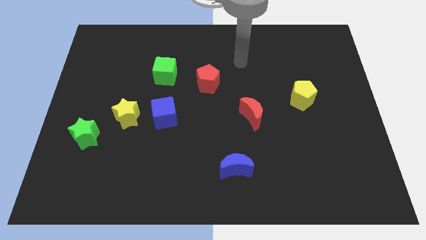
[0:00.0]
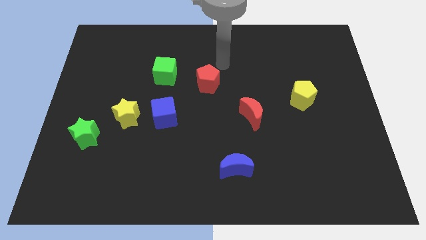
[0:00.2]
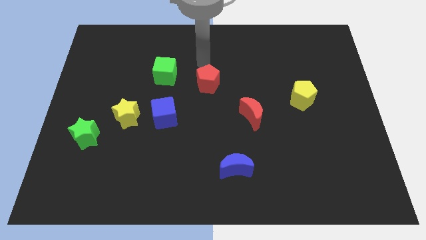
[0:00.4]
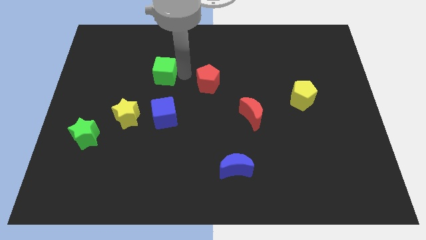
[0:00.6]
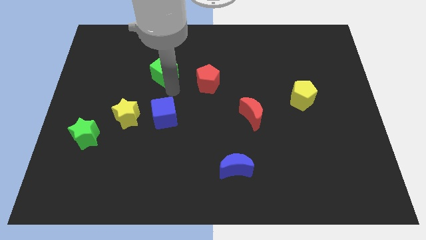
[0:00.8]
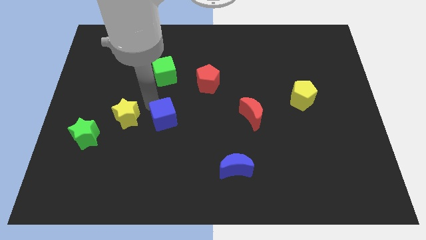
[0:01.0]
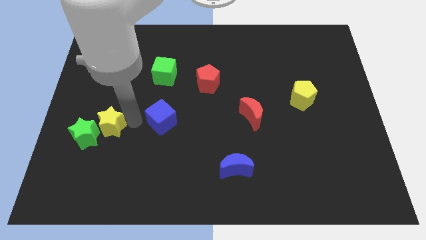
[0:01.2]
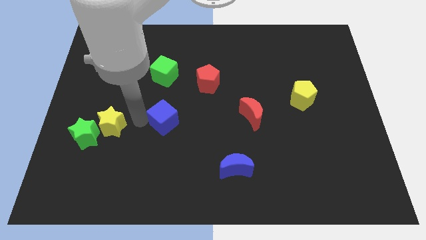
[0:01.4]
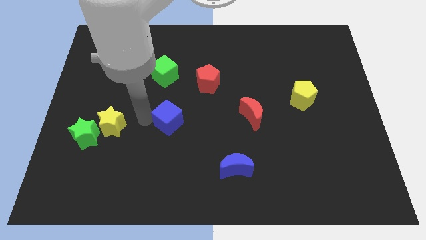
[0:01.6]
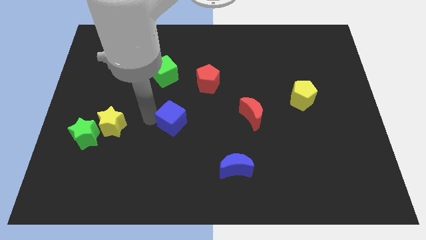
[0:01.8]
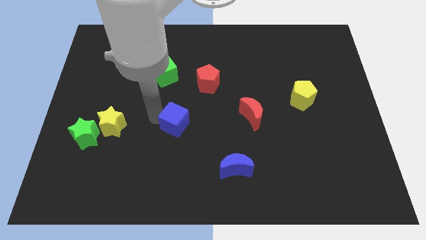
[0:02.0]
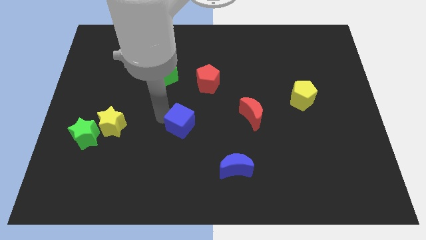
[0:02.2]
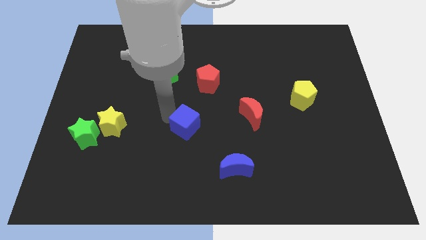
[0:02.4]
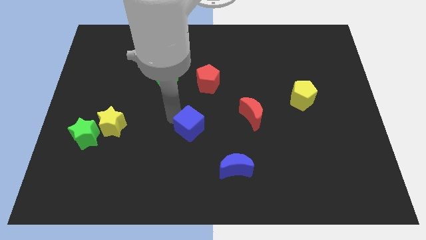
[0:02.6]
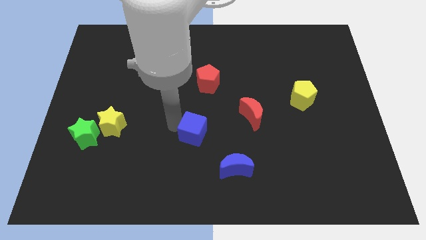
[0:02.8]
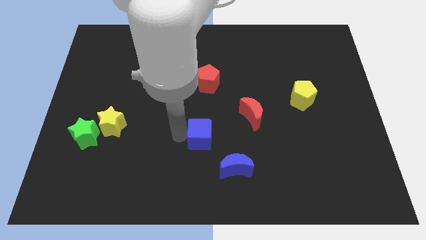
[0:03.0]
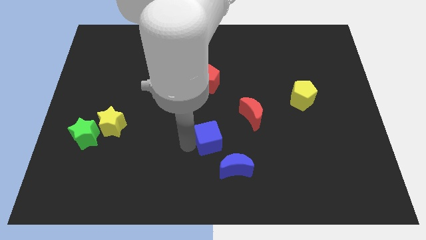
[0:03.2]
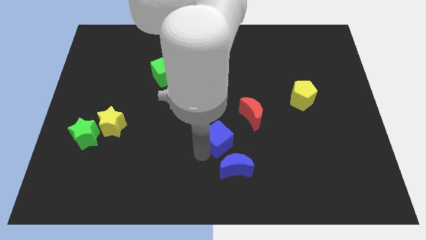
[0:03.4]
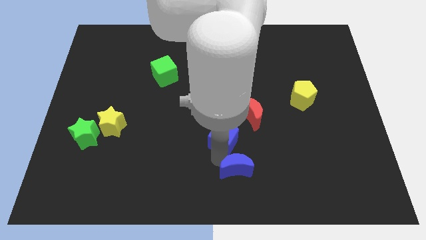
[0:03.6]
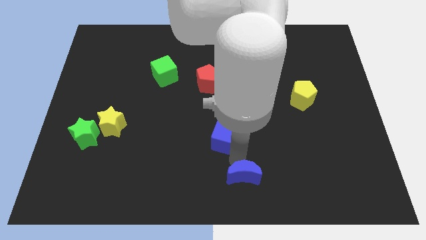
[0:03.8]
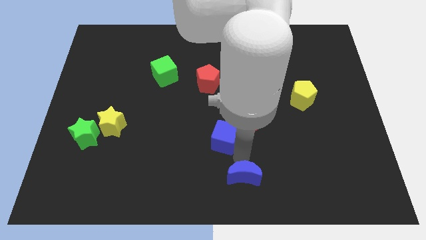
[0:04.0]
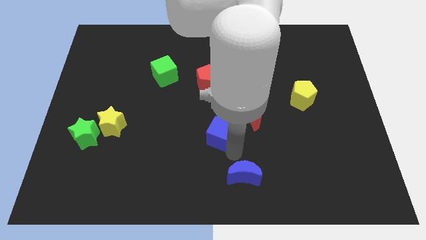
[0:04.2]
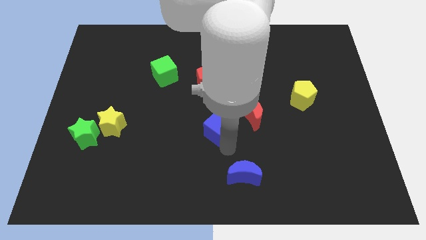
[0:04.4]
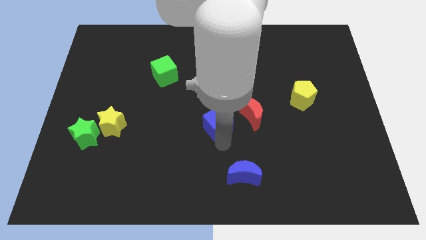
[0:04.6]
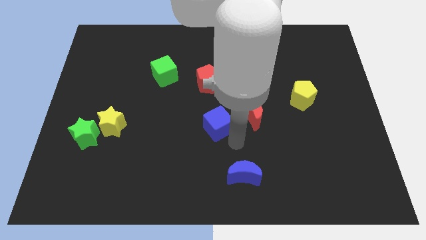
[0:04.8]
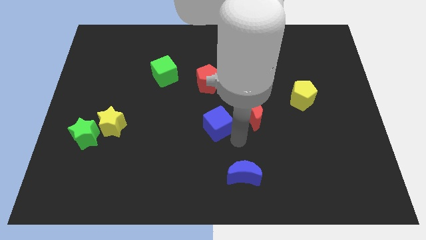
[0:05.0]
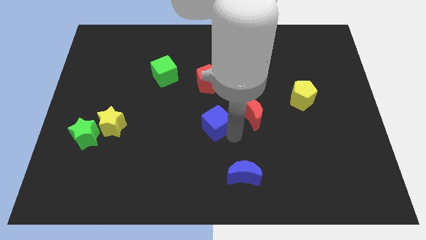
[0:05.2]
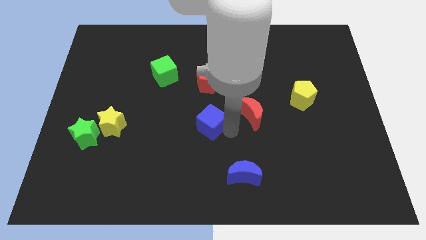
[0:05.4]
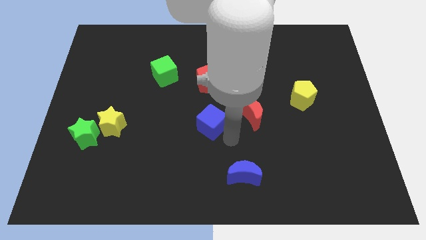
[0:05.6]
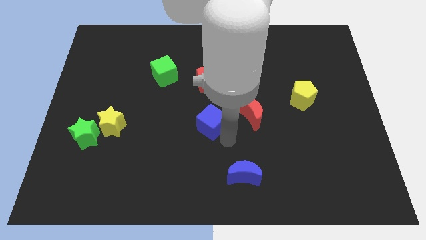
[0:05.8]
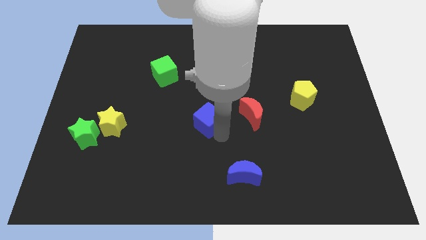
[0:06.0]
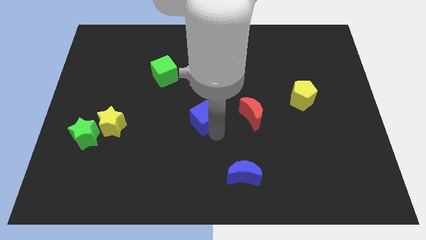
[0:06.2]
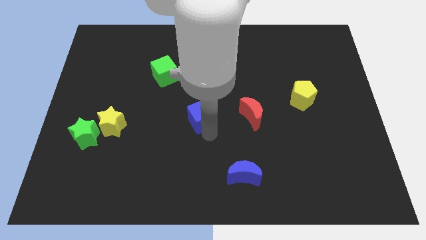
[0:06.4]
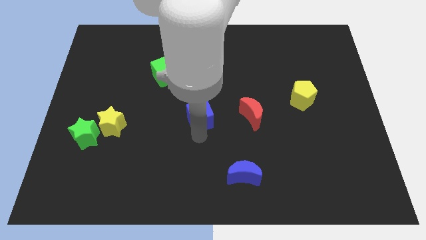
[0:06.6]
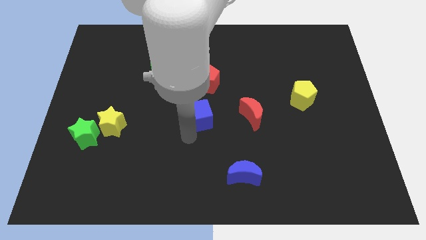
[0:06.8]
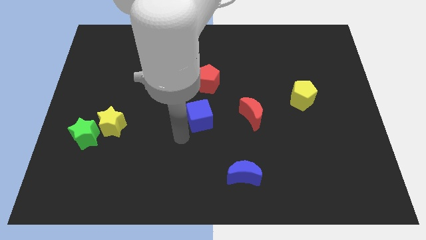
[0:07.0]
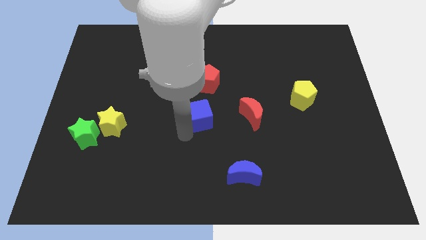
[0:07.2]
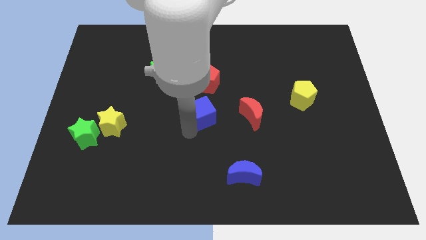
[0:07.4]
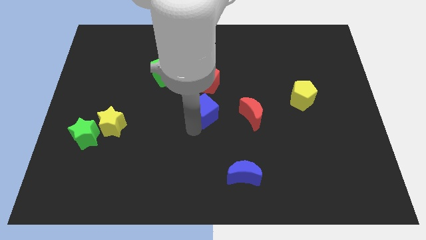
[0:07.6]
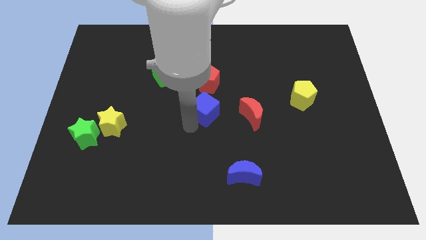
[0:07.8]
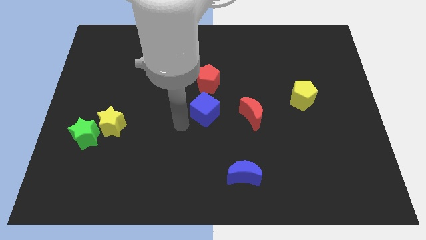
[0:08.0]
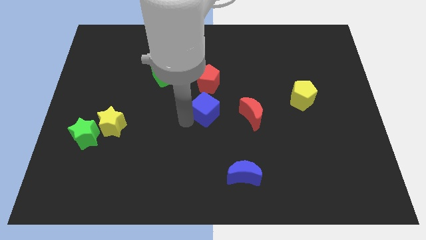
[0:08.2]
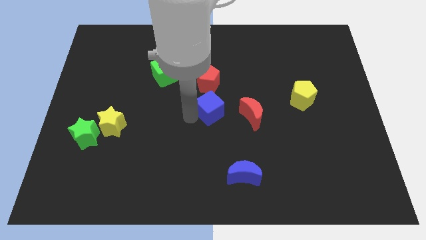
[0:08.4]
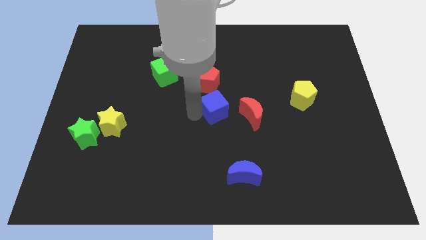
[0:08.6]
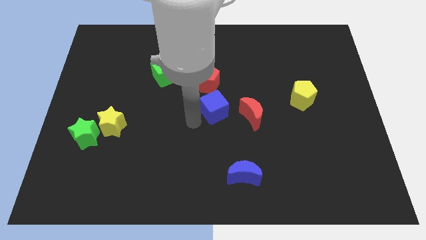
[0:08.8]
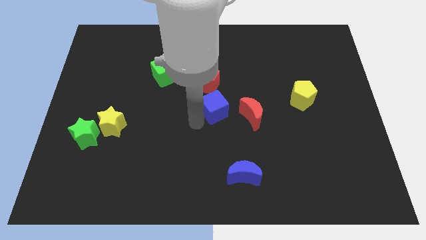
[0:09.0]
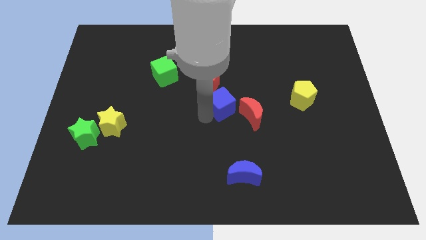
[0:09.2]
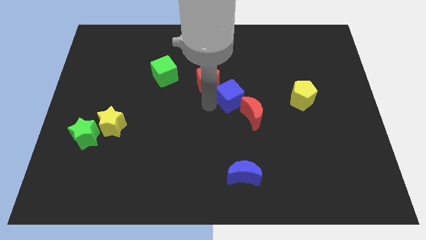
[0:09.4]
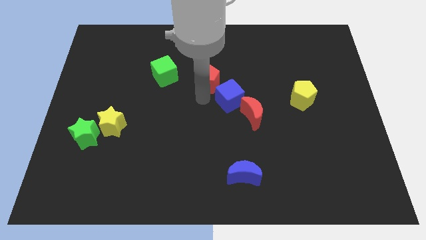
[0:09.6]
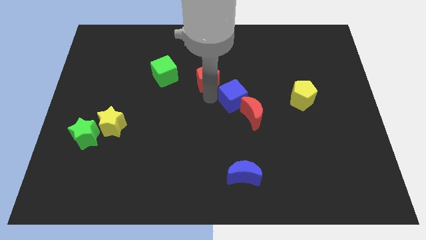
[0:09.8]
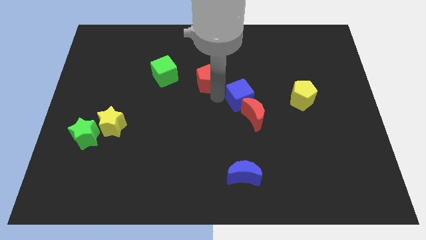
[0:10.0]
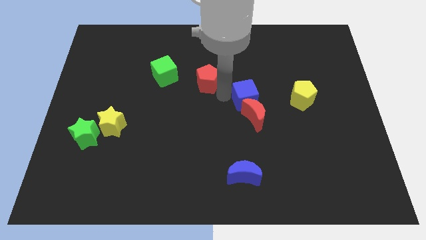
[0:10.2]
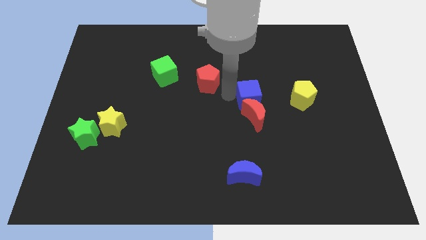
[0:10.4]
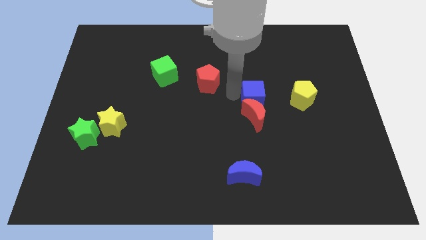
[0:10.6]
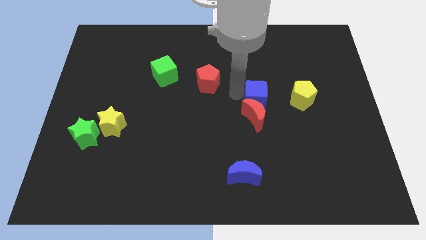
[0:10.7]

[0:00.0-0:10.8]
slide the blue cube right

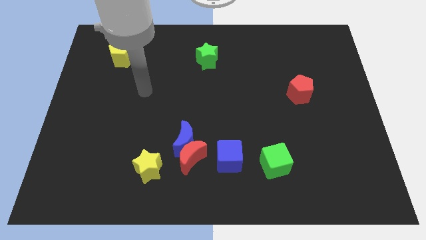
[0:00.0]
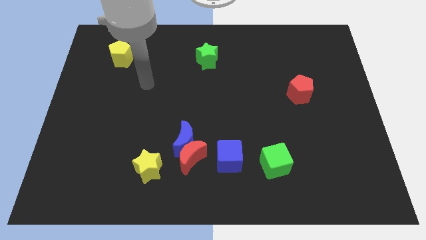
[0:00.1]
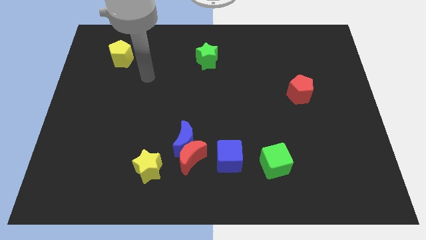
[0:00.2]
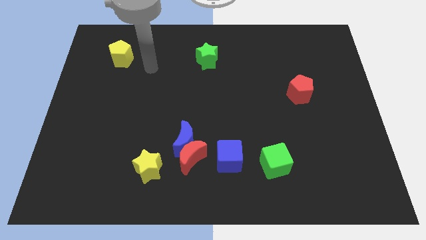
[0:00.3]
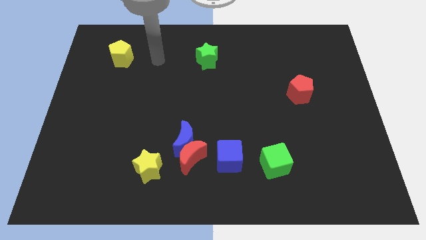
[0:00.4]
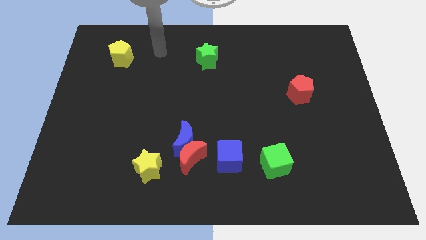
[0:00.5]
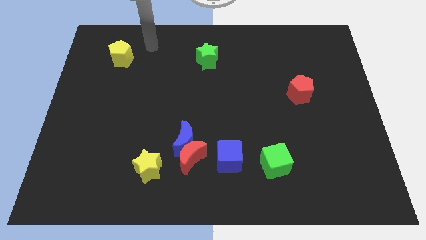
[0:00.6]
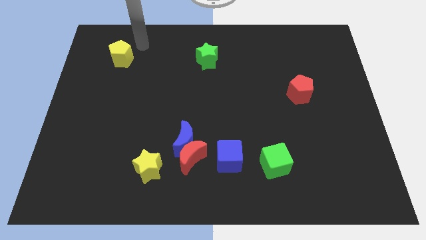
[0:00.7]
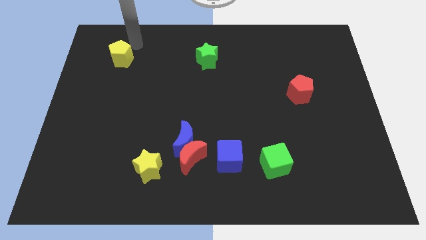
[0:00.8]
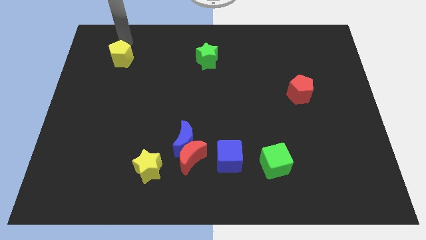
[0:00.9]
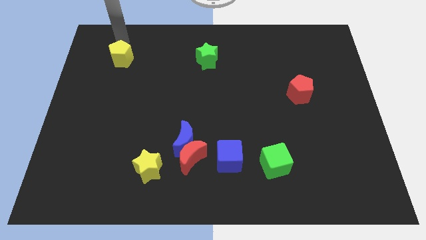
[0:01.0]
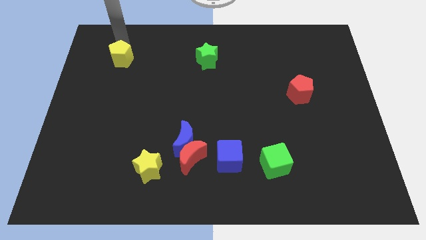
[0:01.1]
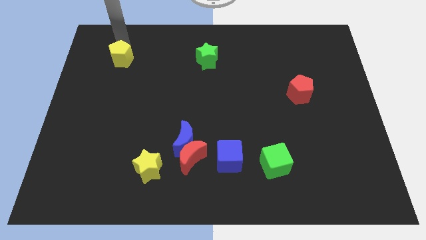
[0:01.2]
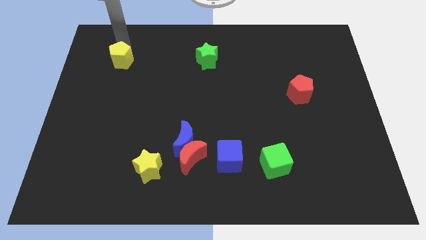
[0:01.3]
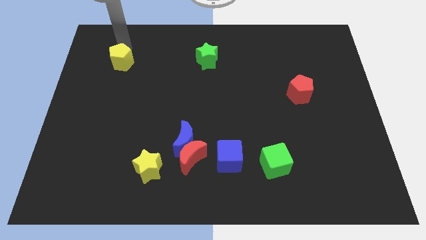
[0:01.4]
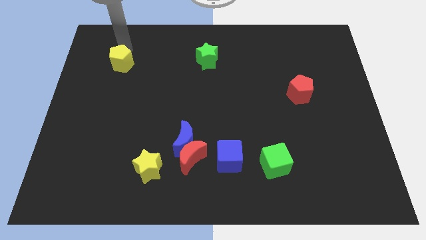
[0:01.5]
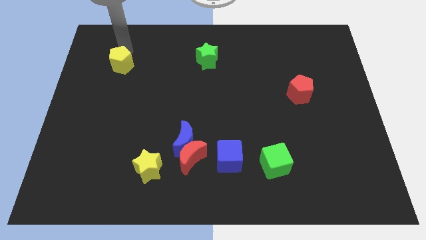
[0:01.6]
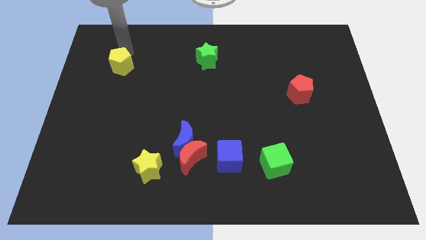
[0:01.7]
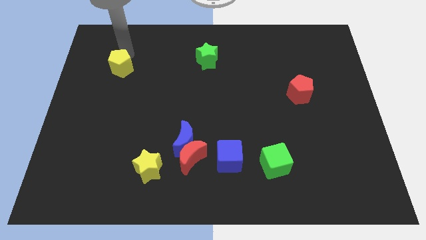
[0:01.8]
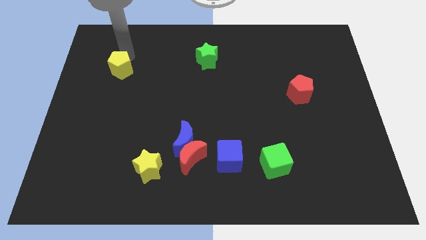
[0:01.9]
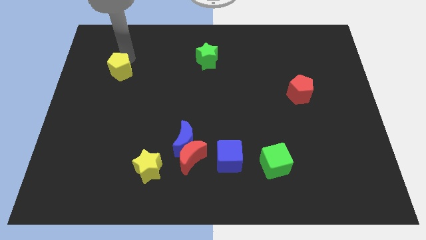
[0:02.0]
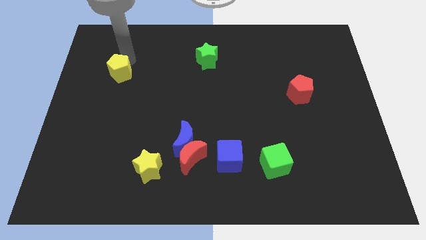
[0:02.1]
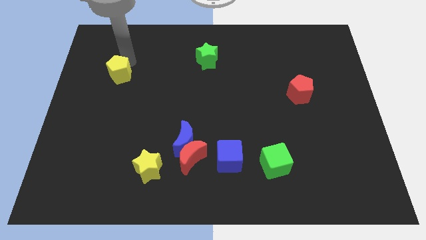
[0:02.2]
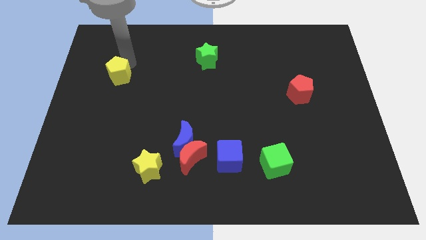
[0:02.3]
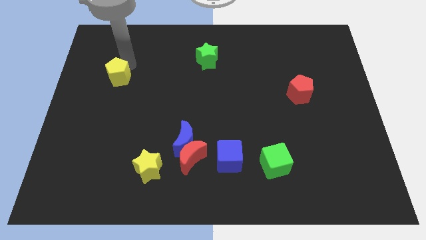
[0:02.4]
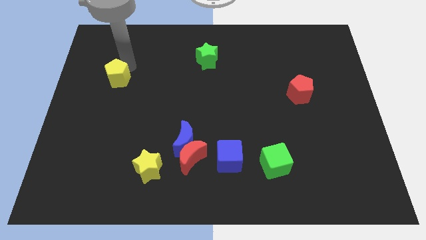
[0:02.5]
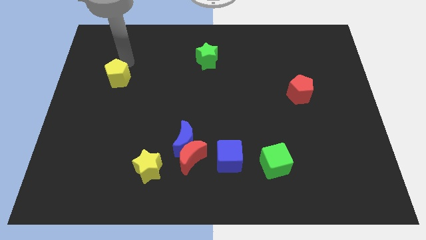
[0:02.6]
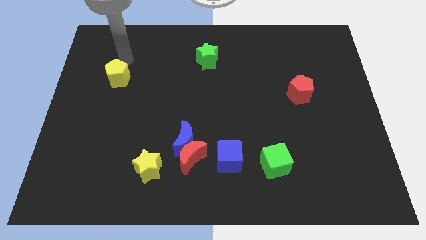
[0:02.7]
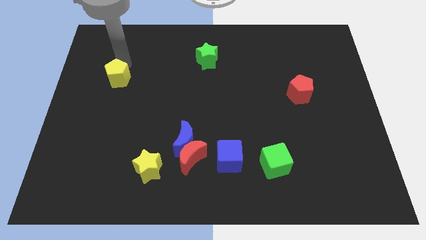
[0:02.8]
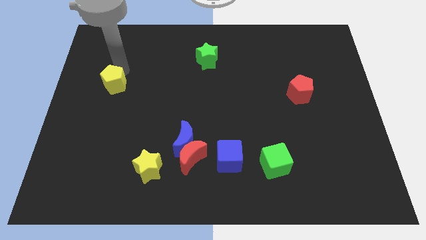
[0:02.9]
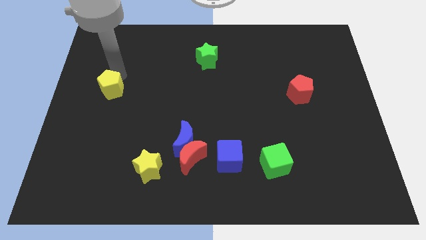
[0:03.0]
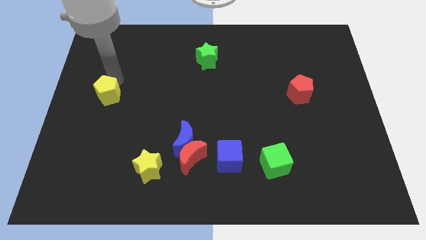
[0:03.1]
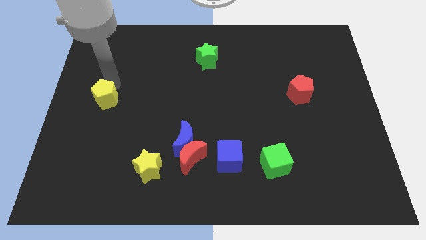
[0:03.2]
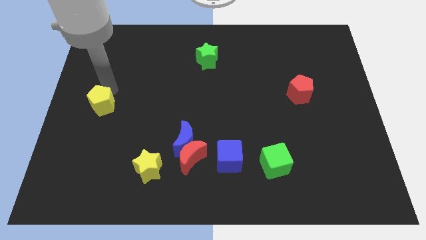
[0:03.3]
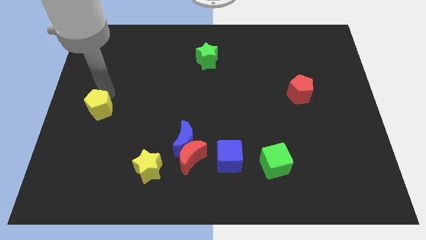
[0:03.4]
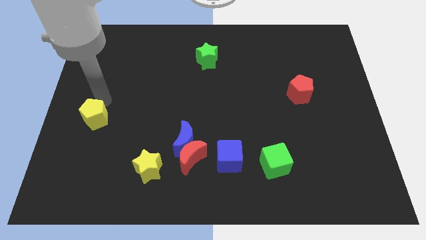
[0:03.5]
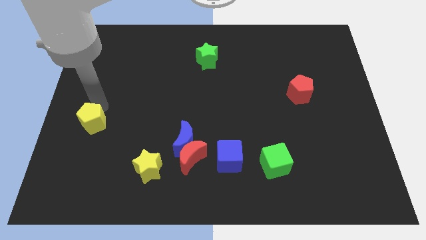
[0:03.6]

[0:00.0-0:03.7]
move the yellow pentagon down
